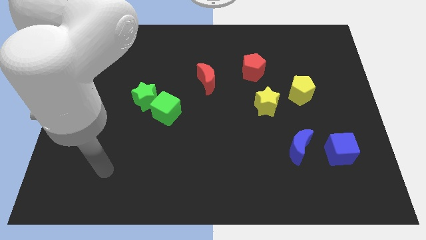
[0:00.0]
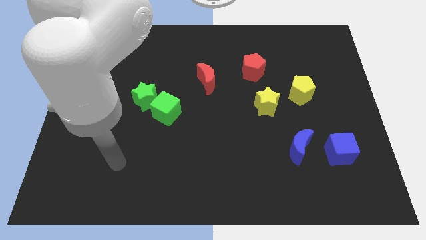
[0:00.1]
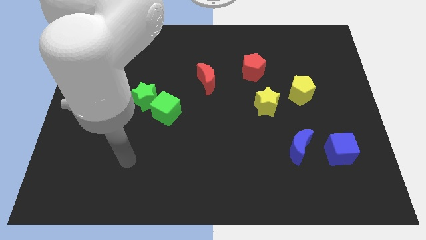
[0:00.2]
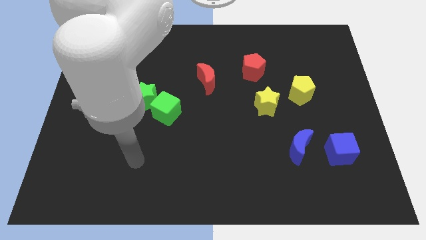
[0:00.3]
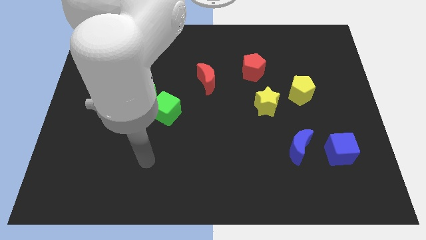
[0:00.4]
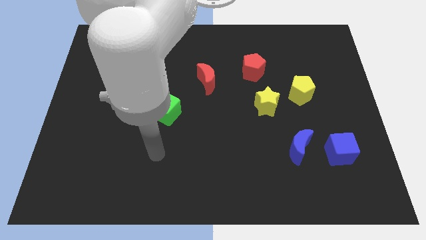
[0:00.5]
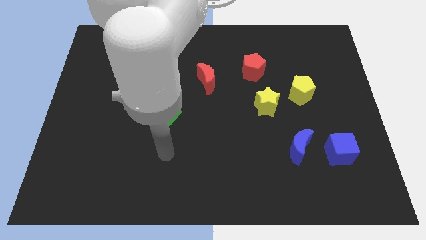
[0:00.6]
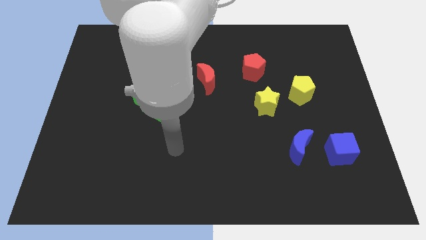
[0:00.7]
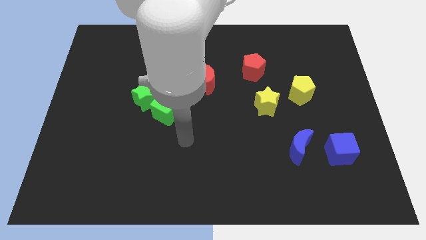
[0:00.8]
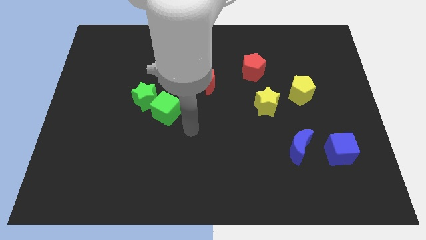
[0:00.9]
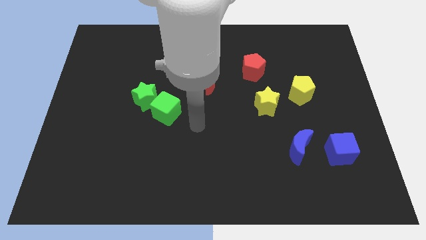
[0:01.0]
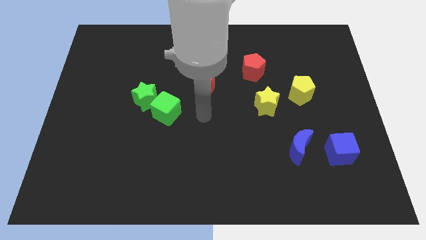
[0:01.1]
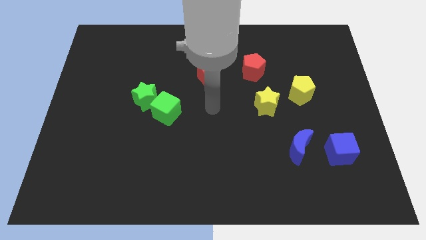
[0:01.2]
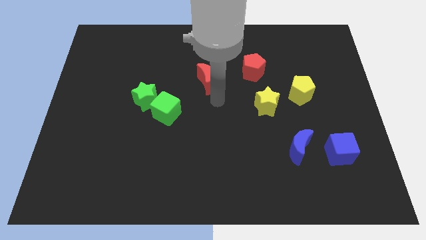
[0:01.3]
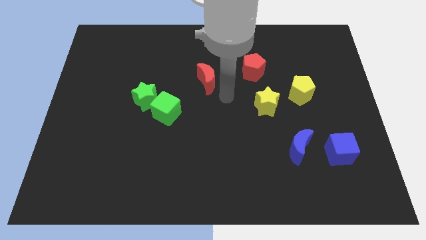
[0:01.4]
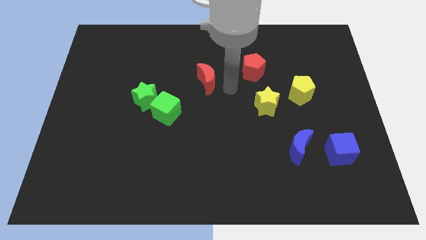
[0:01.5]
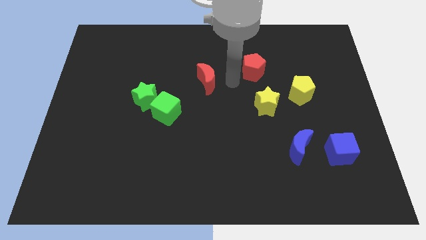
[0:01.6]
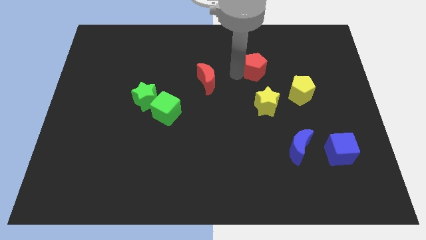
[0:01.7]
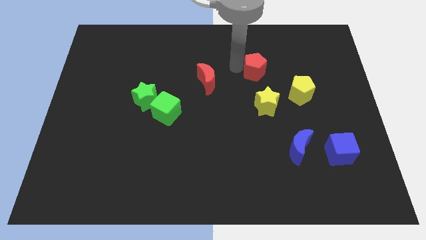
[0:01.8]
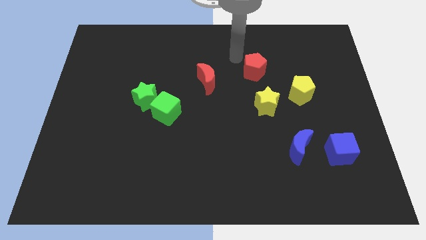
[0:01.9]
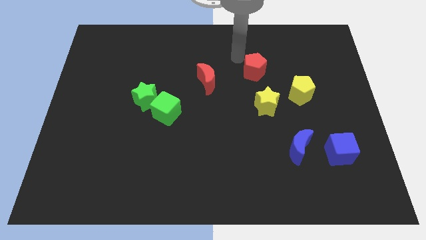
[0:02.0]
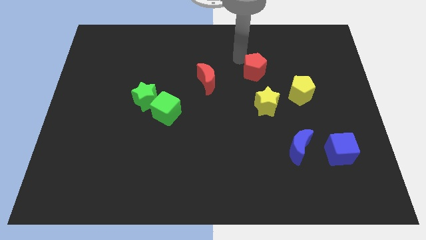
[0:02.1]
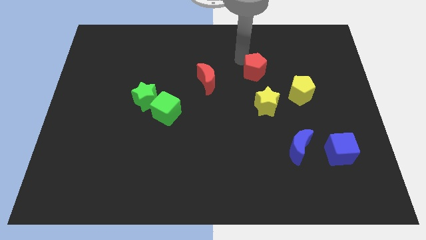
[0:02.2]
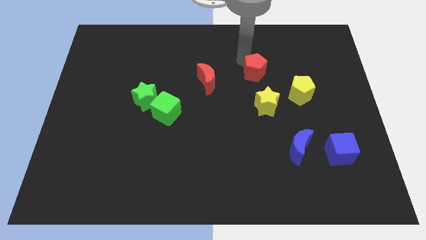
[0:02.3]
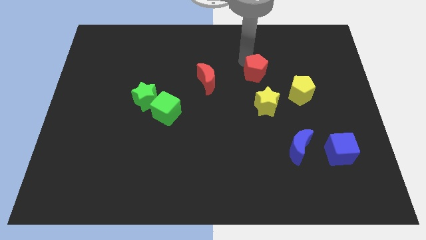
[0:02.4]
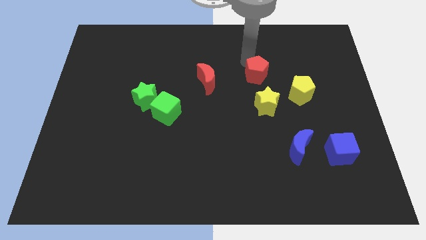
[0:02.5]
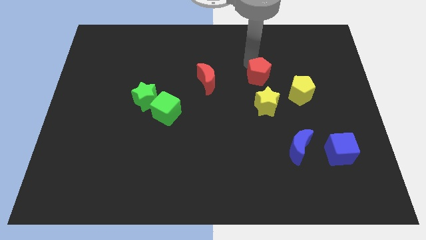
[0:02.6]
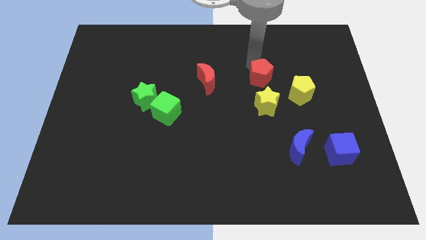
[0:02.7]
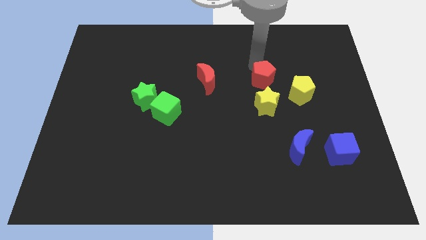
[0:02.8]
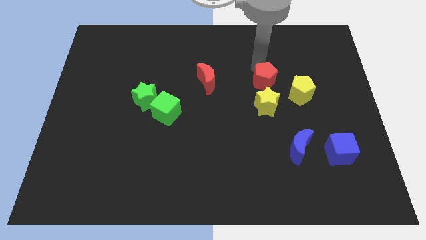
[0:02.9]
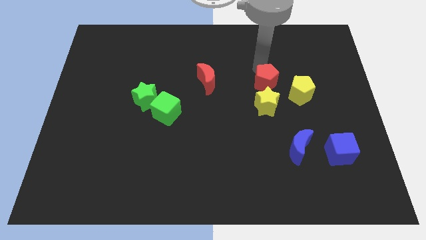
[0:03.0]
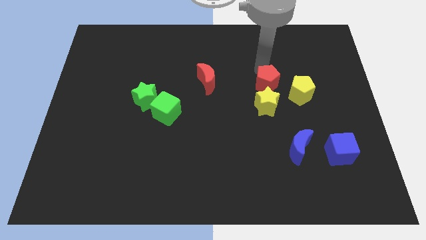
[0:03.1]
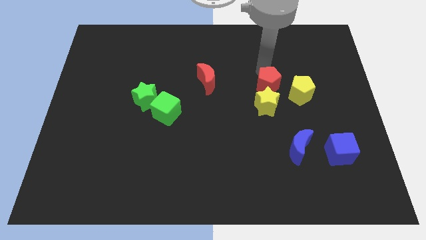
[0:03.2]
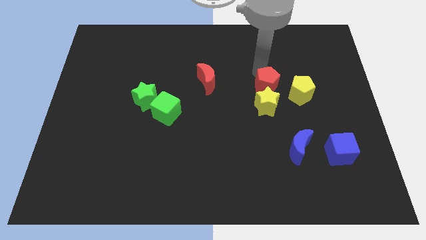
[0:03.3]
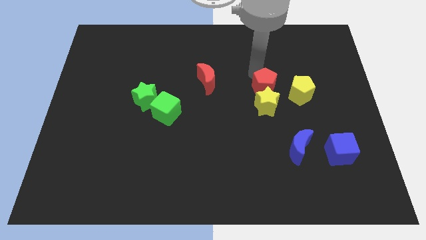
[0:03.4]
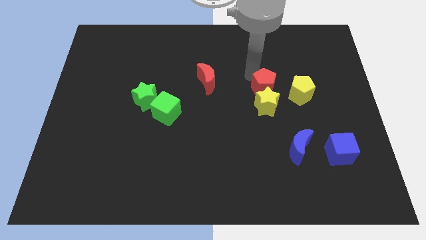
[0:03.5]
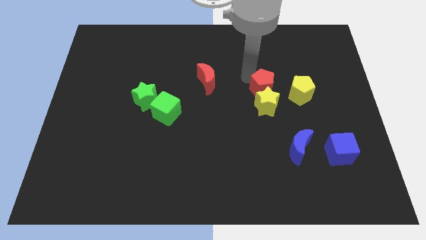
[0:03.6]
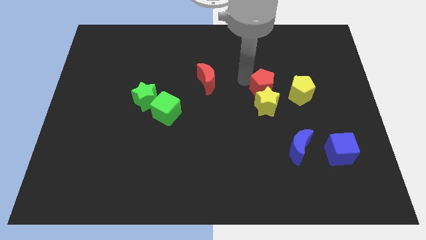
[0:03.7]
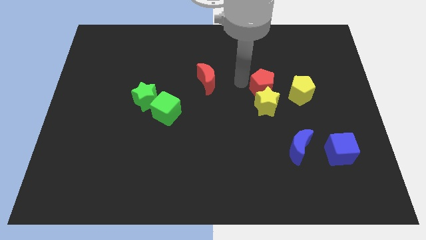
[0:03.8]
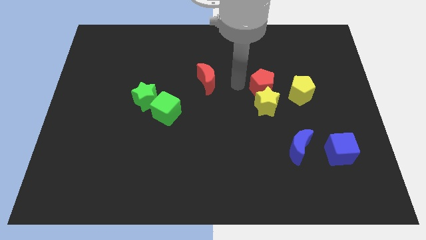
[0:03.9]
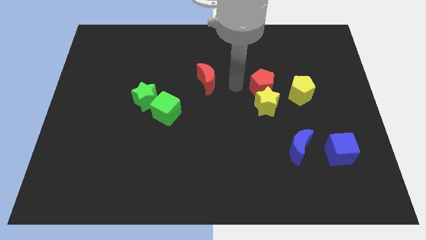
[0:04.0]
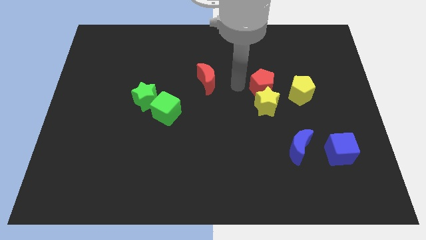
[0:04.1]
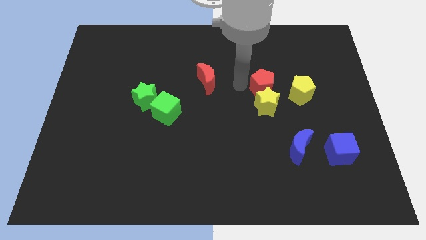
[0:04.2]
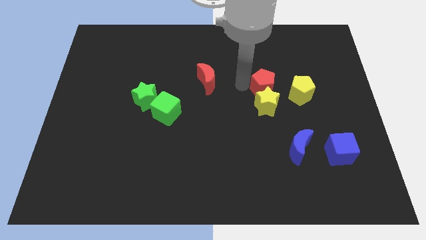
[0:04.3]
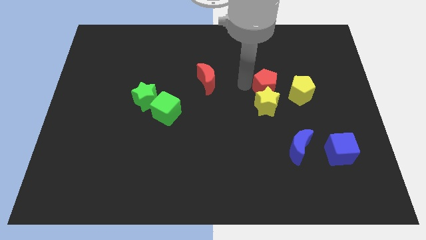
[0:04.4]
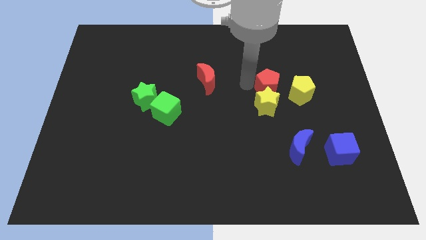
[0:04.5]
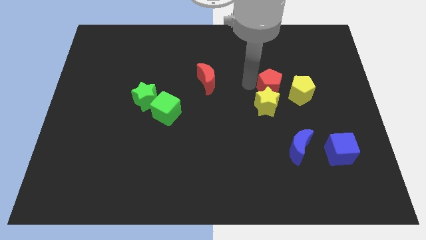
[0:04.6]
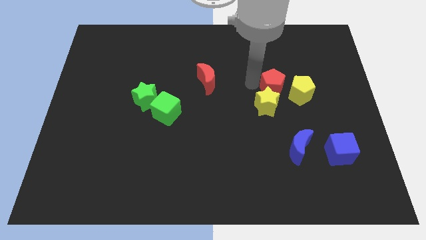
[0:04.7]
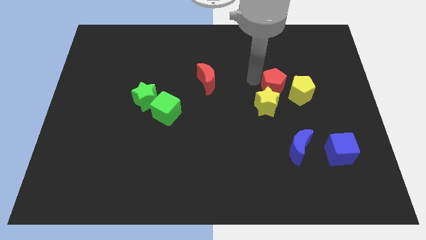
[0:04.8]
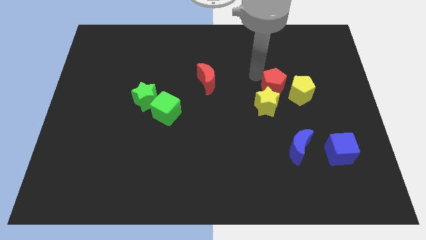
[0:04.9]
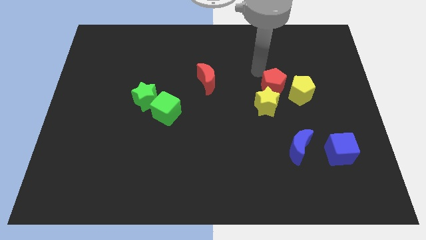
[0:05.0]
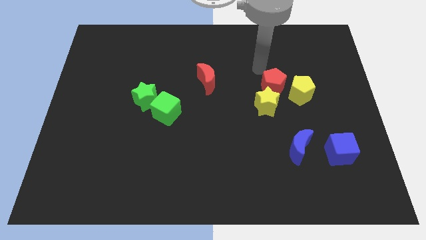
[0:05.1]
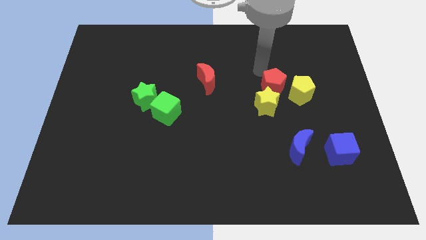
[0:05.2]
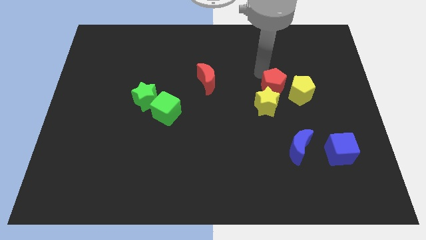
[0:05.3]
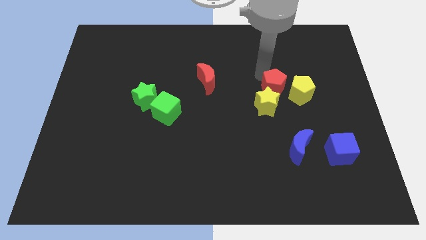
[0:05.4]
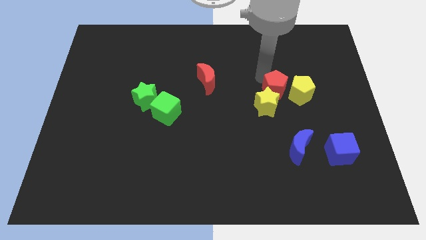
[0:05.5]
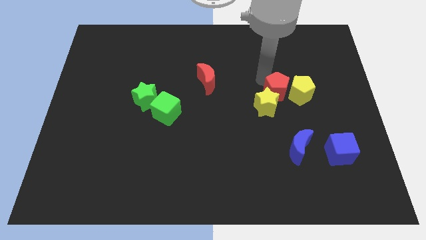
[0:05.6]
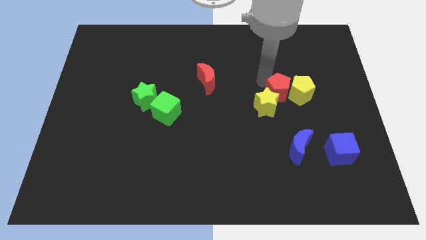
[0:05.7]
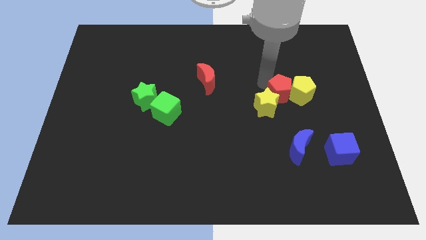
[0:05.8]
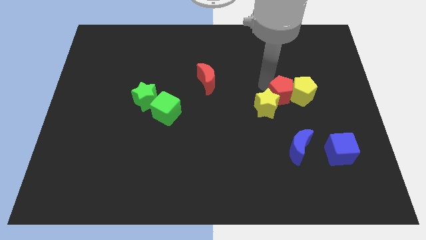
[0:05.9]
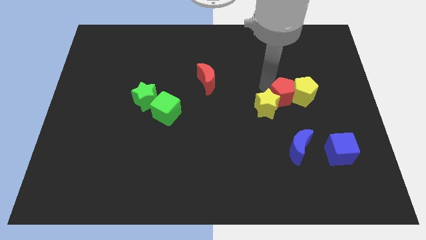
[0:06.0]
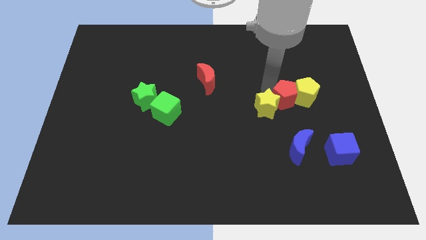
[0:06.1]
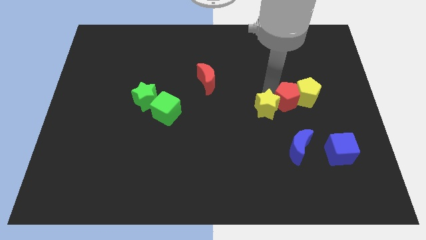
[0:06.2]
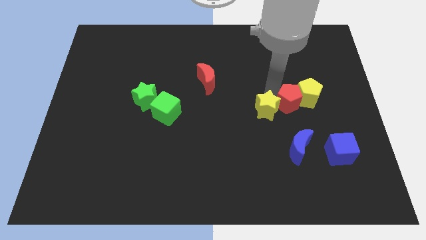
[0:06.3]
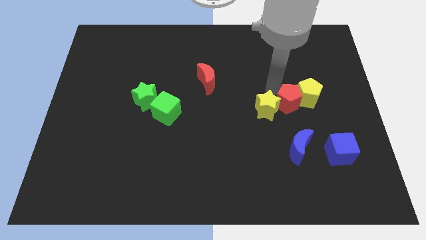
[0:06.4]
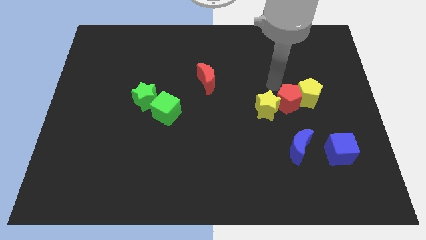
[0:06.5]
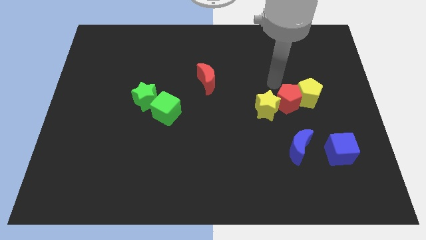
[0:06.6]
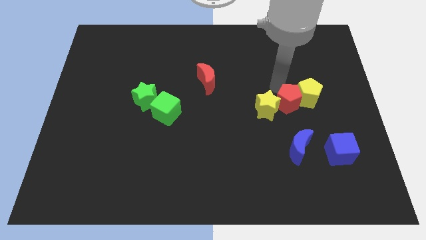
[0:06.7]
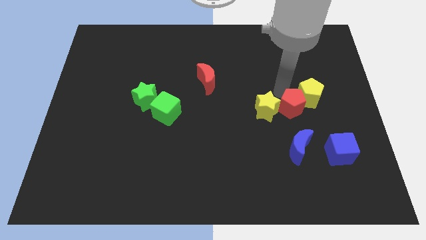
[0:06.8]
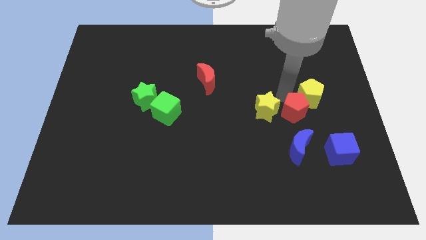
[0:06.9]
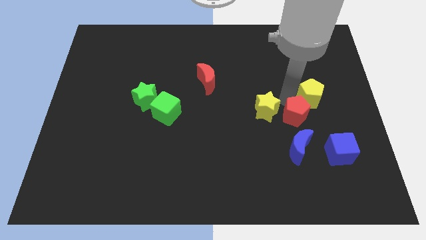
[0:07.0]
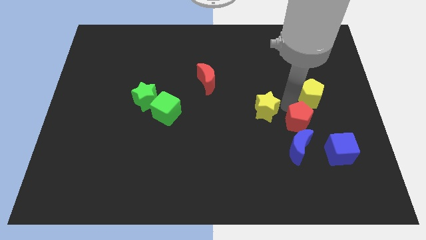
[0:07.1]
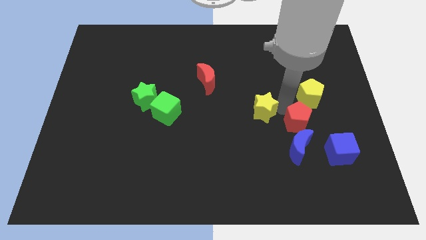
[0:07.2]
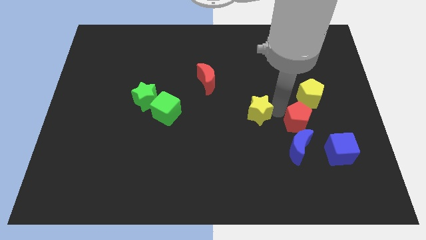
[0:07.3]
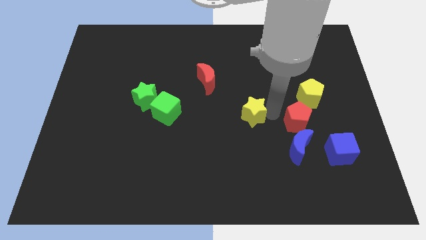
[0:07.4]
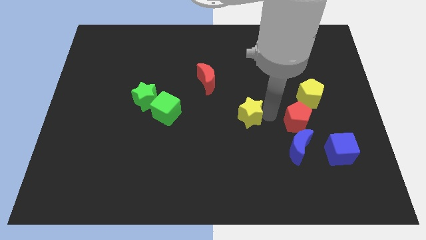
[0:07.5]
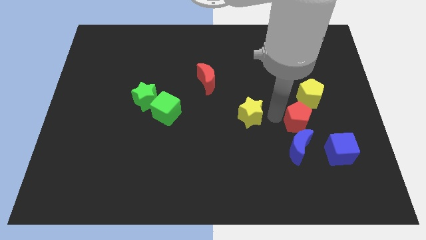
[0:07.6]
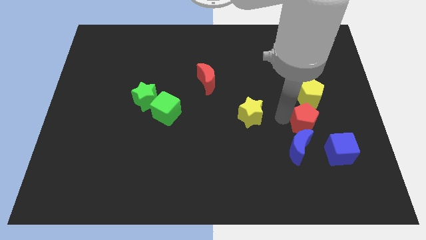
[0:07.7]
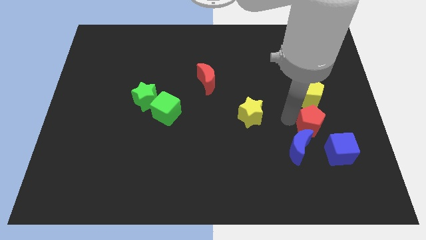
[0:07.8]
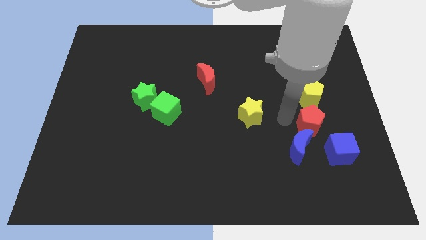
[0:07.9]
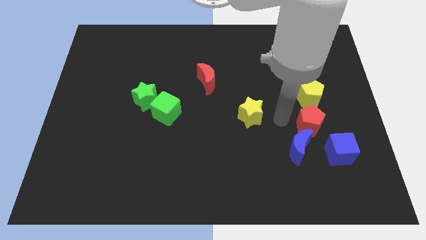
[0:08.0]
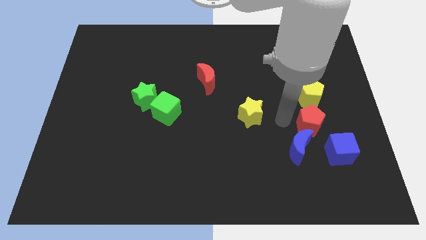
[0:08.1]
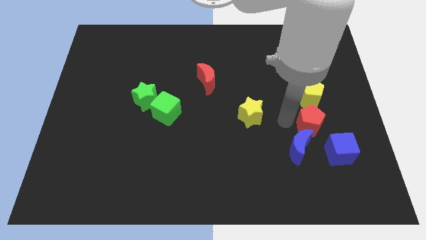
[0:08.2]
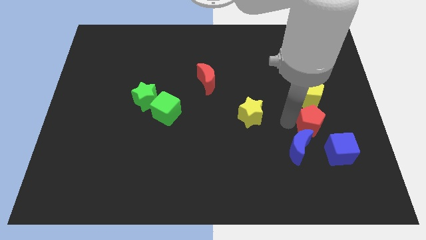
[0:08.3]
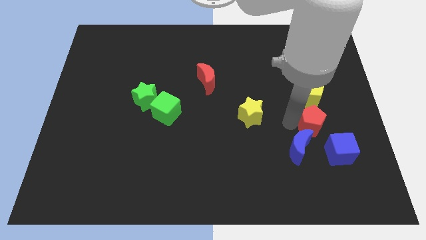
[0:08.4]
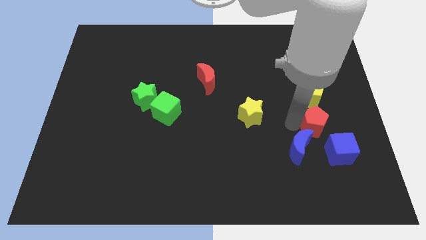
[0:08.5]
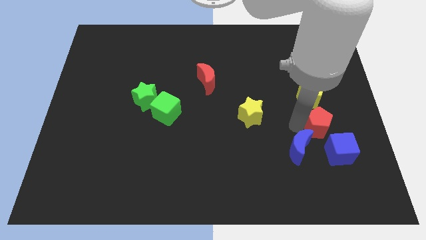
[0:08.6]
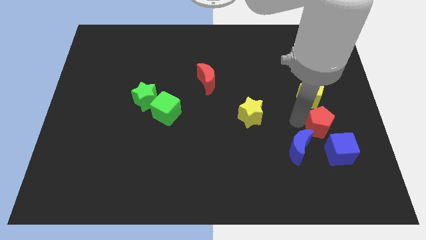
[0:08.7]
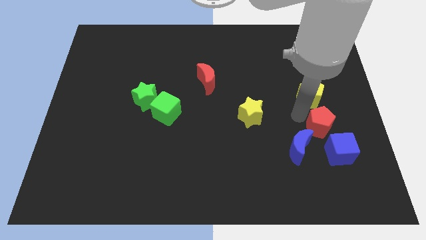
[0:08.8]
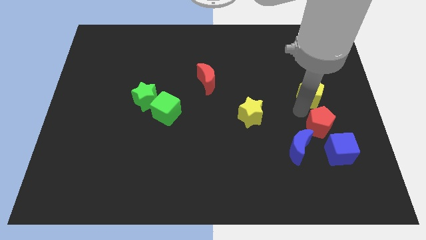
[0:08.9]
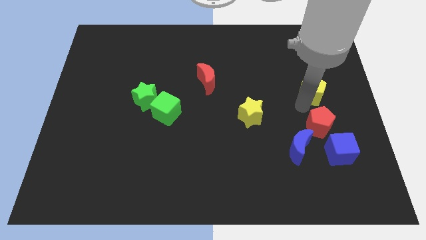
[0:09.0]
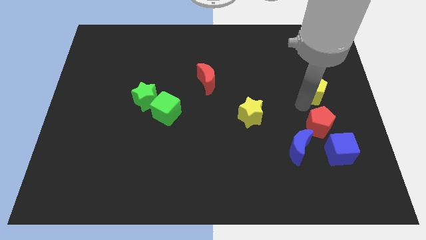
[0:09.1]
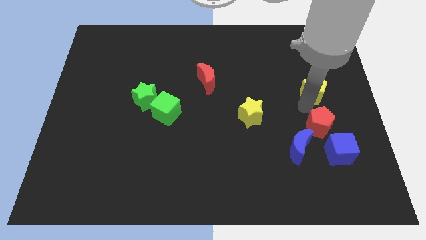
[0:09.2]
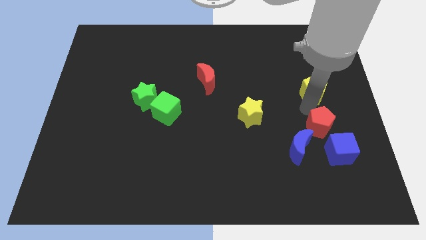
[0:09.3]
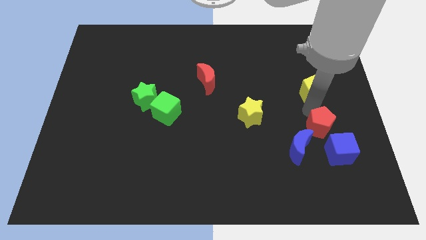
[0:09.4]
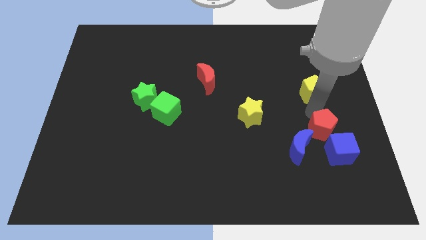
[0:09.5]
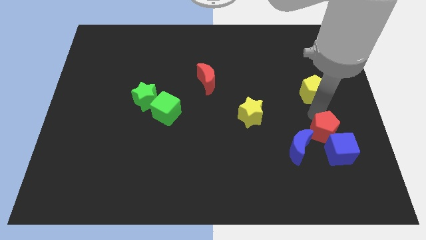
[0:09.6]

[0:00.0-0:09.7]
push the red pentagon towards the blue cube
